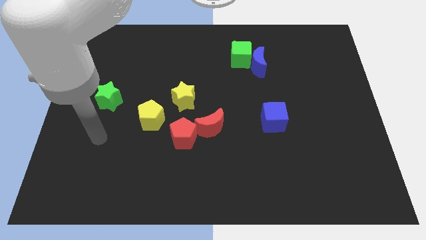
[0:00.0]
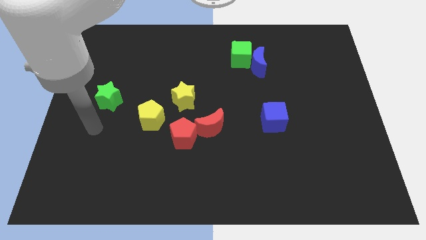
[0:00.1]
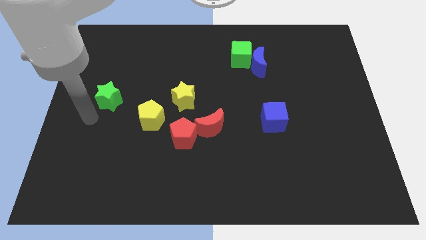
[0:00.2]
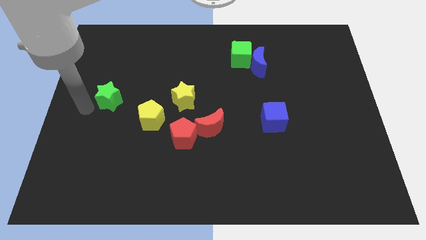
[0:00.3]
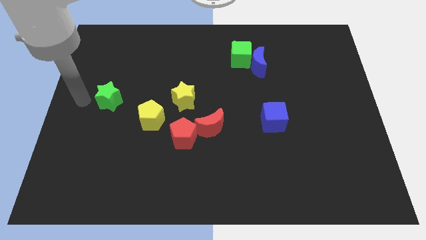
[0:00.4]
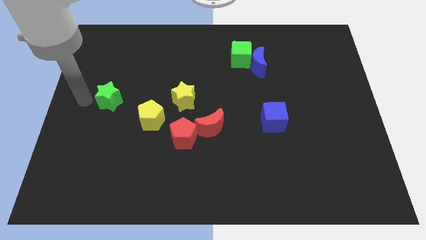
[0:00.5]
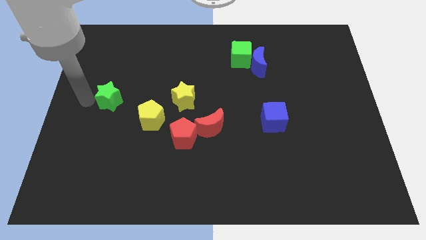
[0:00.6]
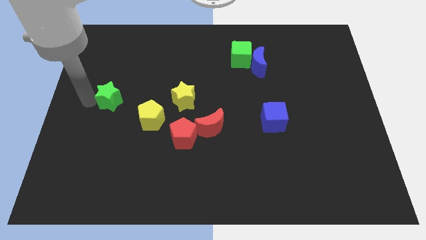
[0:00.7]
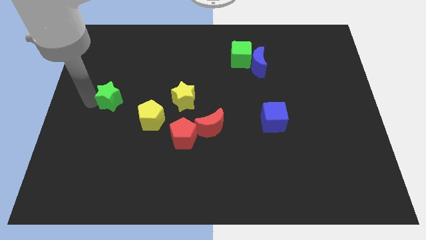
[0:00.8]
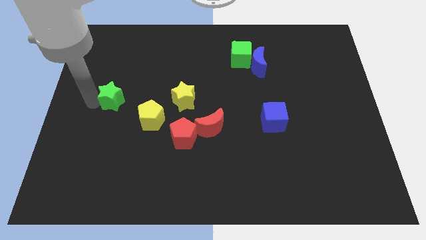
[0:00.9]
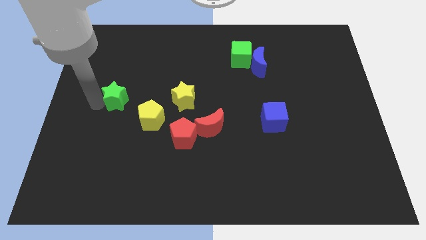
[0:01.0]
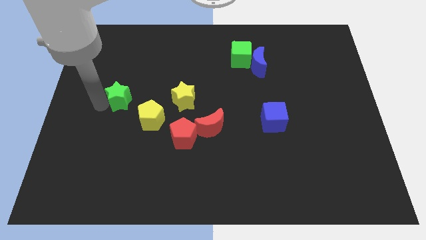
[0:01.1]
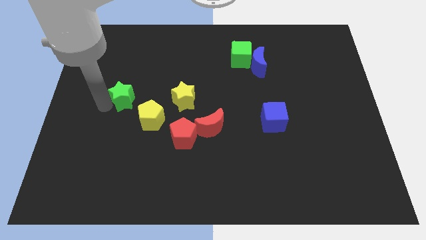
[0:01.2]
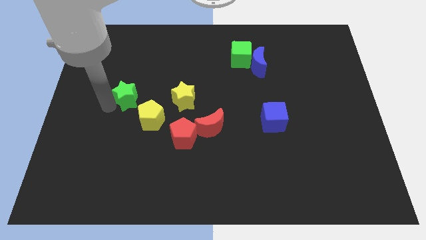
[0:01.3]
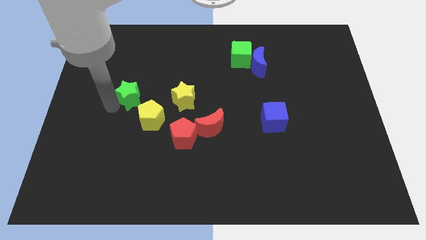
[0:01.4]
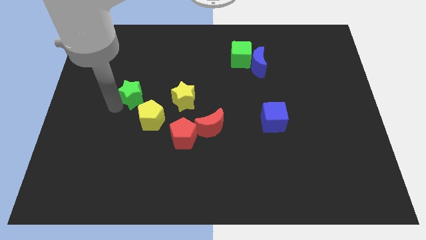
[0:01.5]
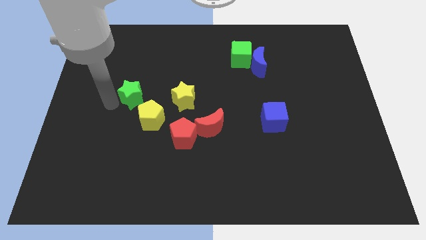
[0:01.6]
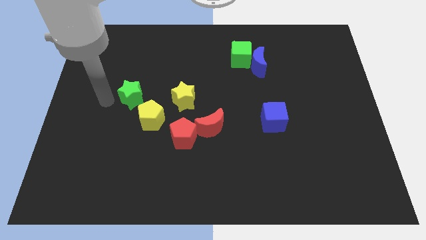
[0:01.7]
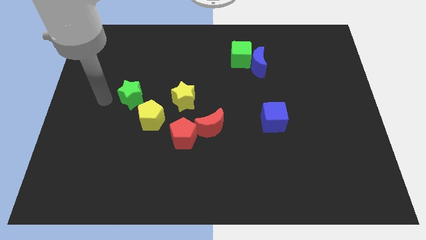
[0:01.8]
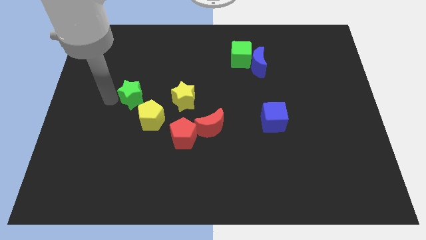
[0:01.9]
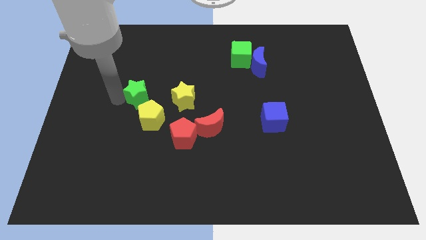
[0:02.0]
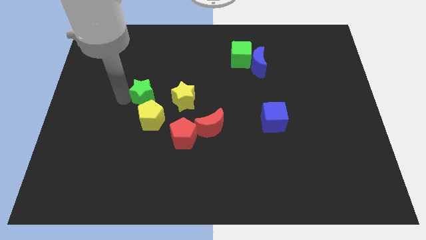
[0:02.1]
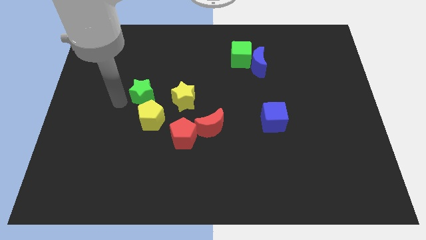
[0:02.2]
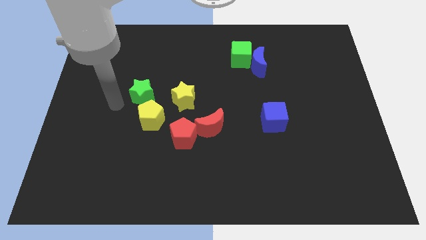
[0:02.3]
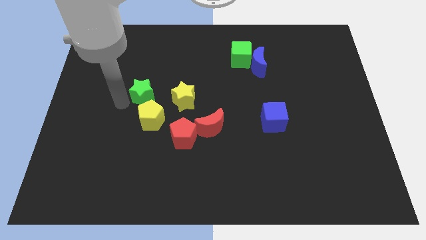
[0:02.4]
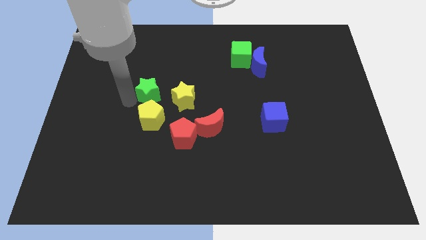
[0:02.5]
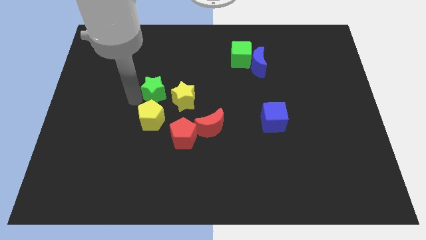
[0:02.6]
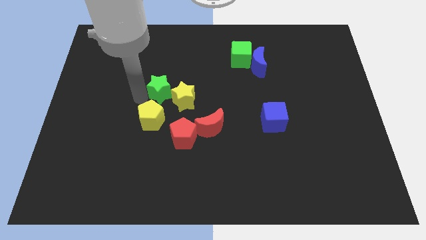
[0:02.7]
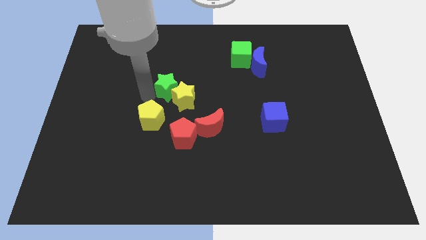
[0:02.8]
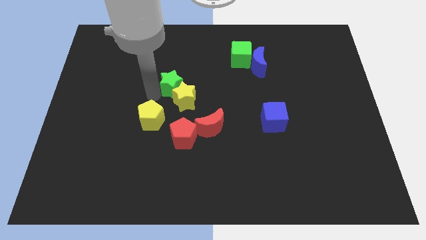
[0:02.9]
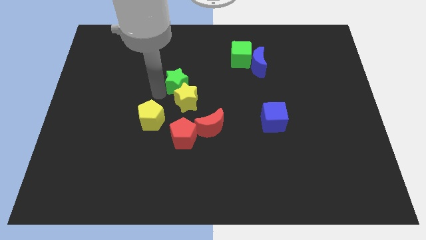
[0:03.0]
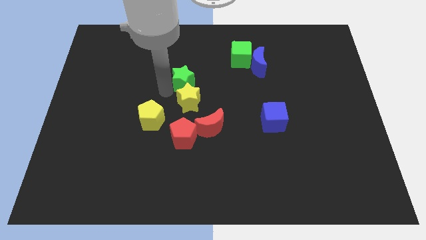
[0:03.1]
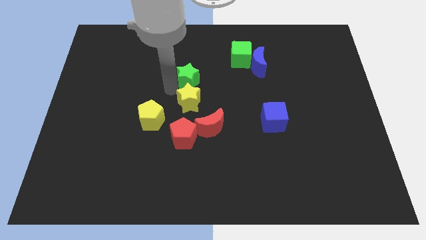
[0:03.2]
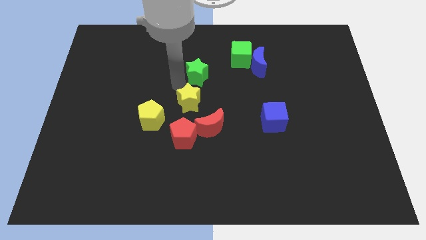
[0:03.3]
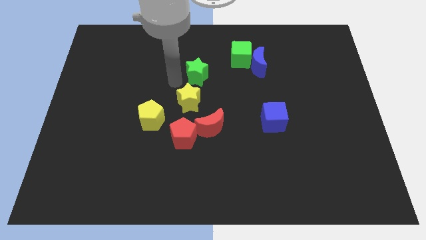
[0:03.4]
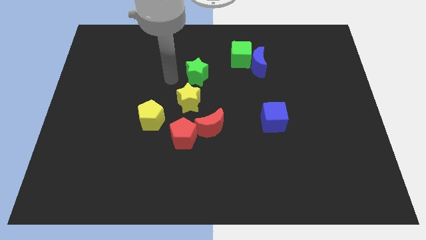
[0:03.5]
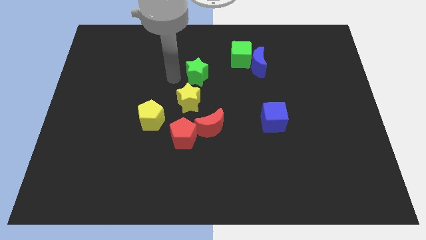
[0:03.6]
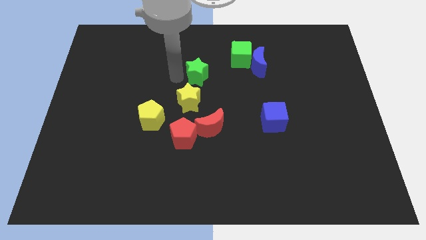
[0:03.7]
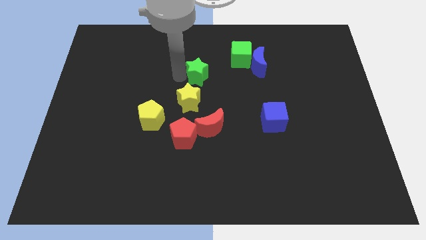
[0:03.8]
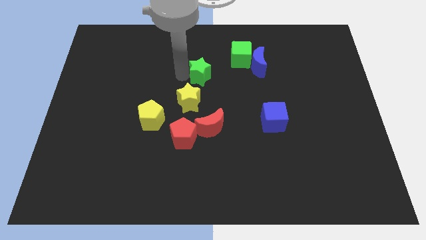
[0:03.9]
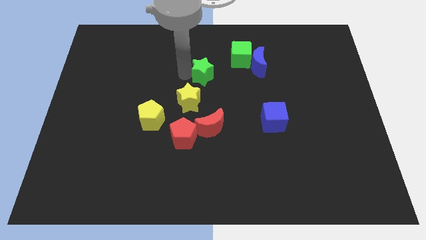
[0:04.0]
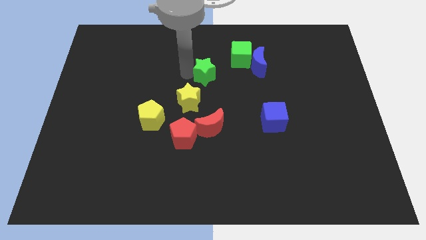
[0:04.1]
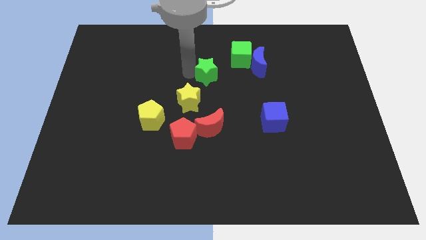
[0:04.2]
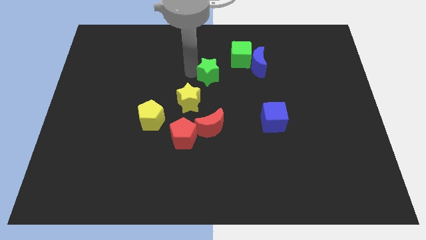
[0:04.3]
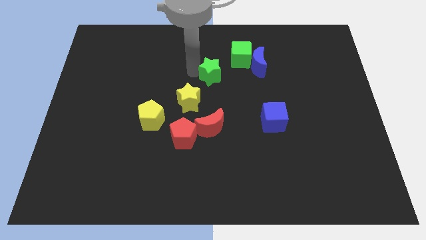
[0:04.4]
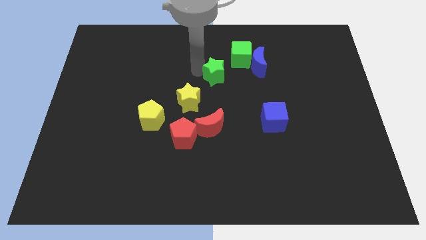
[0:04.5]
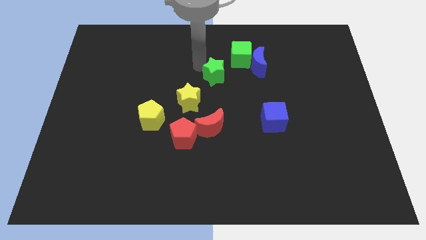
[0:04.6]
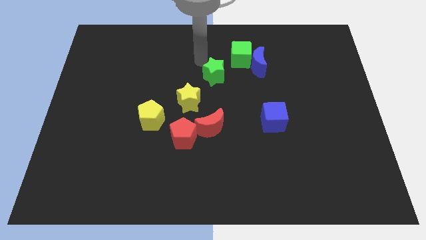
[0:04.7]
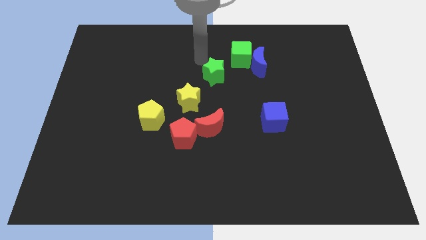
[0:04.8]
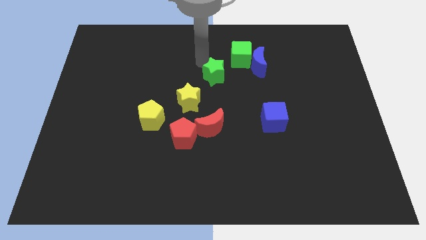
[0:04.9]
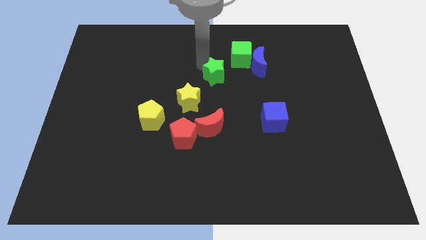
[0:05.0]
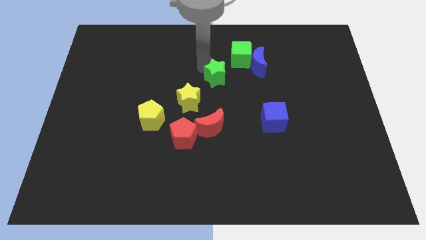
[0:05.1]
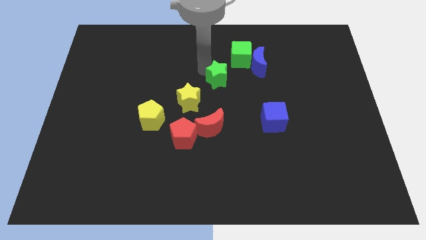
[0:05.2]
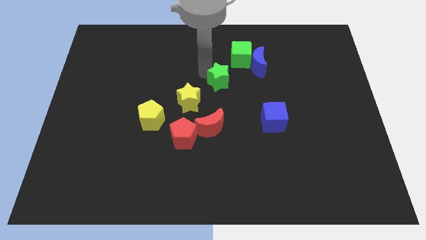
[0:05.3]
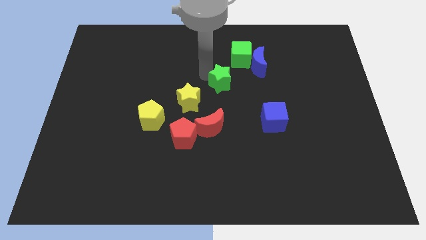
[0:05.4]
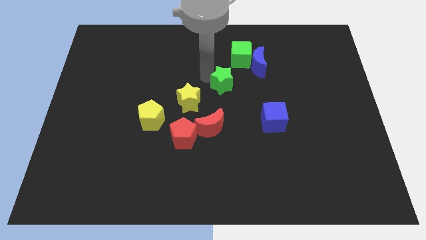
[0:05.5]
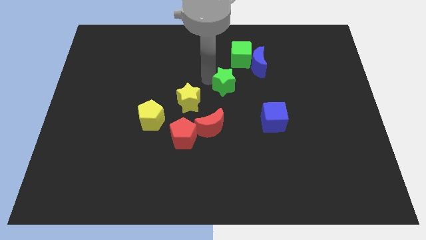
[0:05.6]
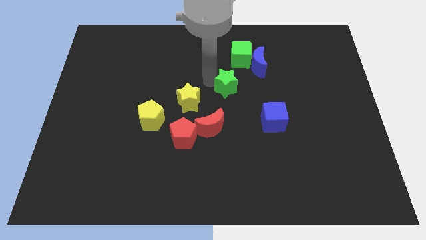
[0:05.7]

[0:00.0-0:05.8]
put the green star right of the yellow star

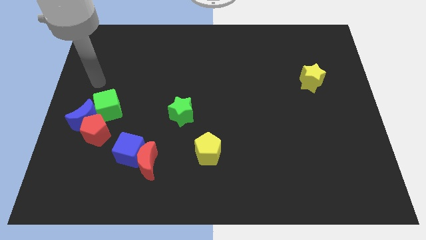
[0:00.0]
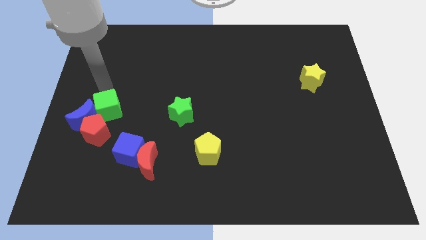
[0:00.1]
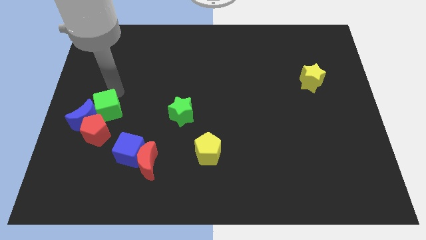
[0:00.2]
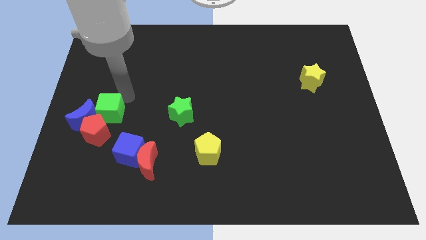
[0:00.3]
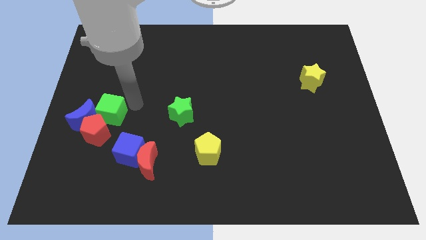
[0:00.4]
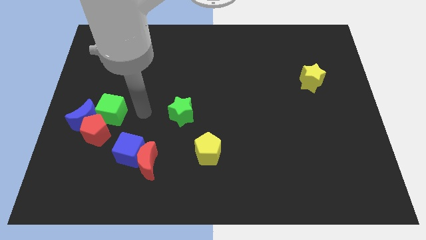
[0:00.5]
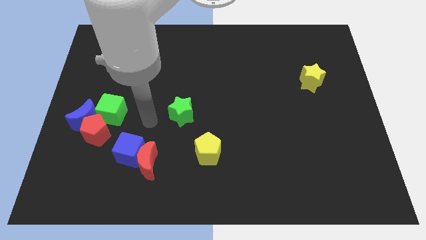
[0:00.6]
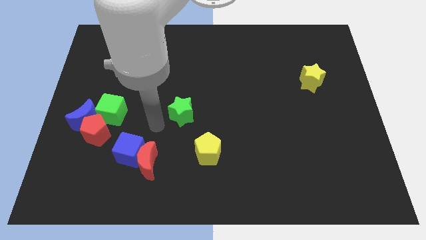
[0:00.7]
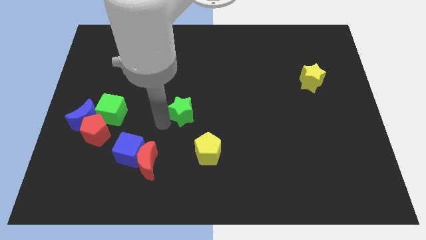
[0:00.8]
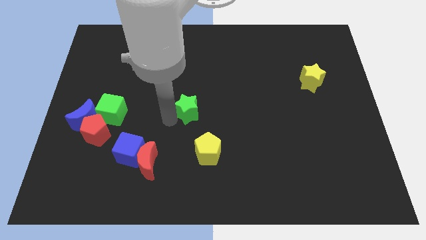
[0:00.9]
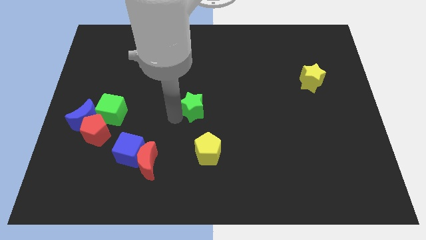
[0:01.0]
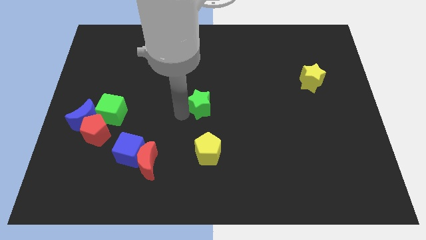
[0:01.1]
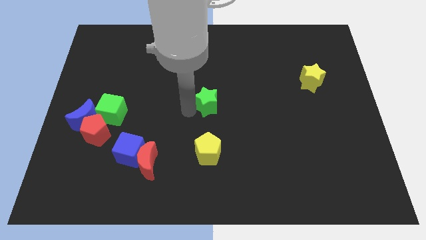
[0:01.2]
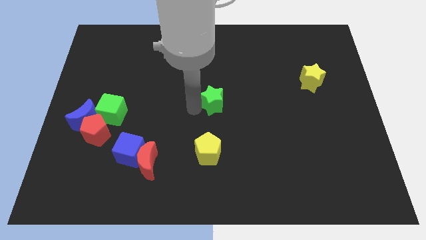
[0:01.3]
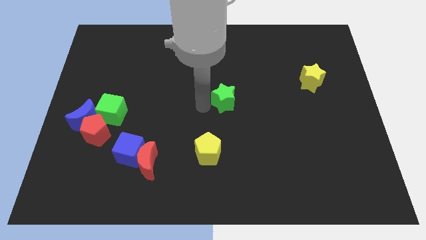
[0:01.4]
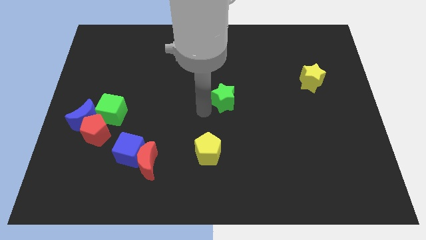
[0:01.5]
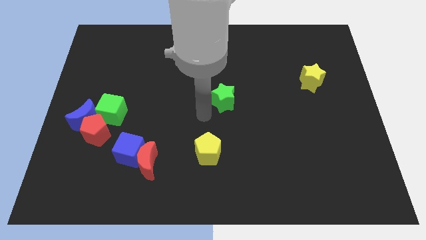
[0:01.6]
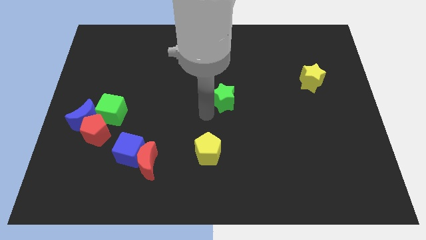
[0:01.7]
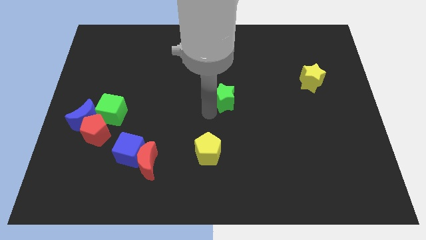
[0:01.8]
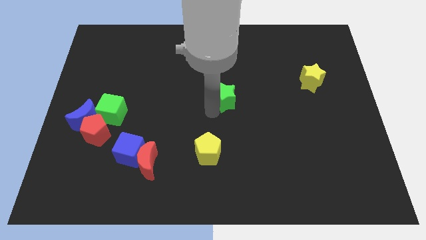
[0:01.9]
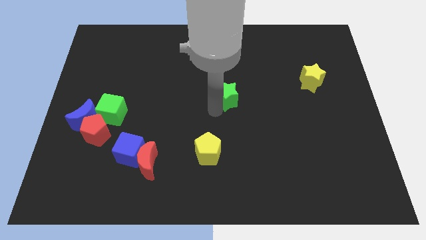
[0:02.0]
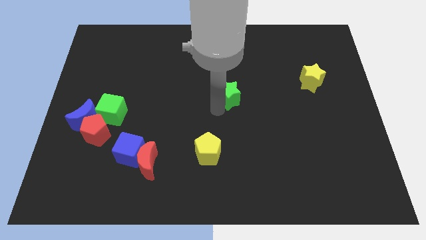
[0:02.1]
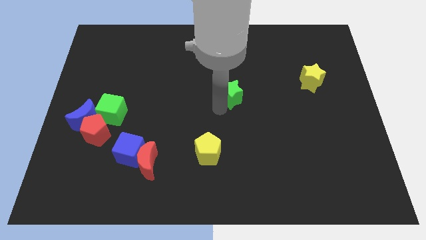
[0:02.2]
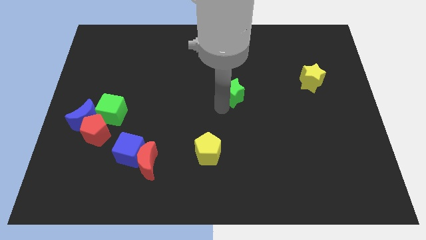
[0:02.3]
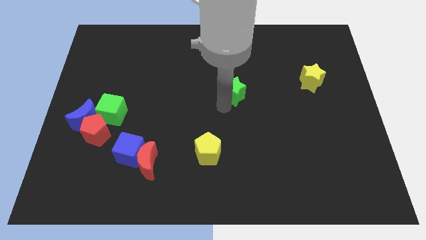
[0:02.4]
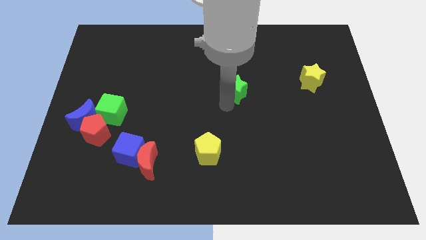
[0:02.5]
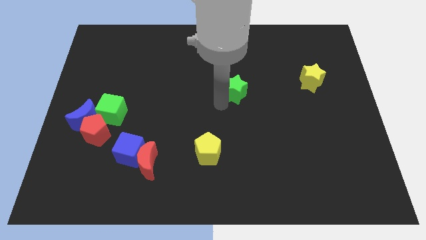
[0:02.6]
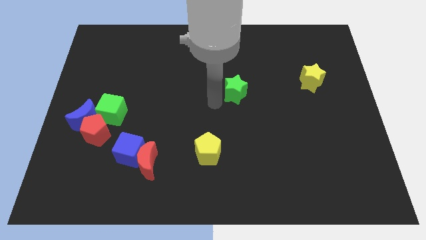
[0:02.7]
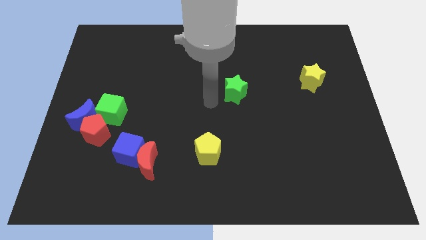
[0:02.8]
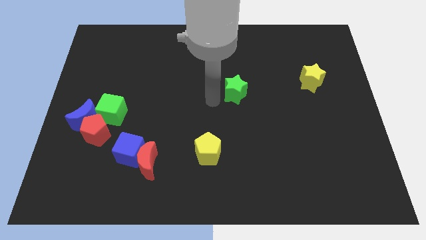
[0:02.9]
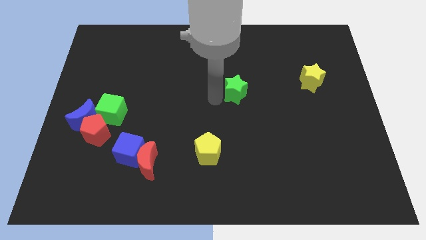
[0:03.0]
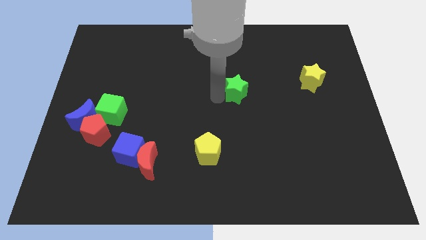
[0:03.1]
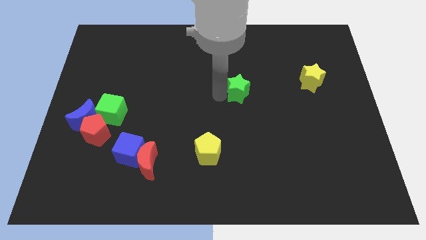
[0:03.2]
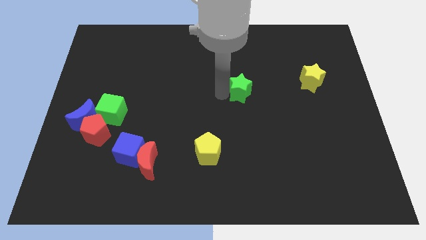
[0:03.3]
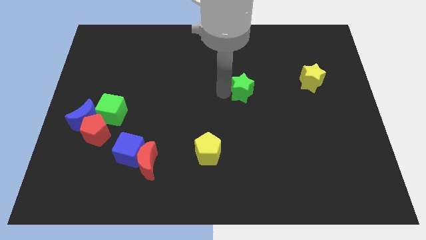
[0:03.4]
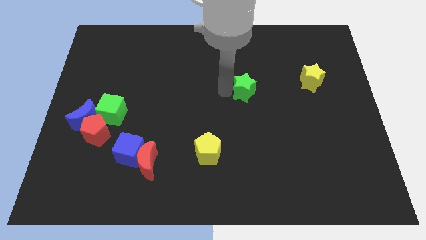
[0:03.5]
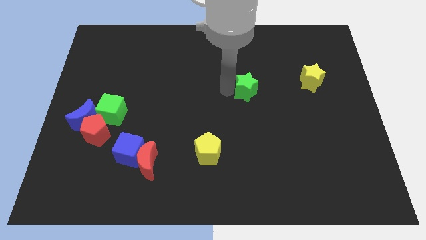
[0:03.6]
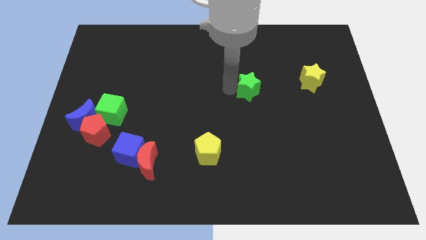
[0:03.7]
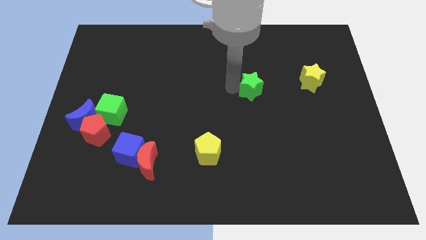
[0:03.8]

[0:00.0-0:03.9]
slide the green star left of the yellow star
